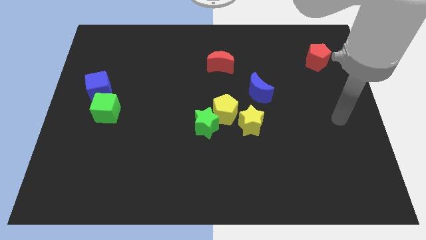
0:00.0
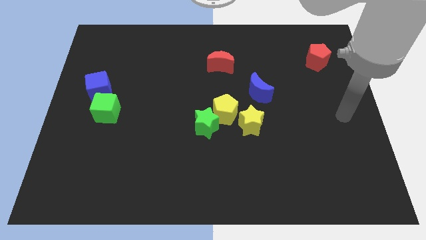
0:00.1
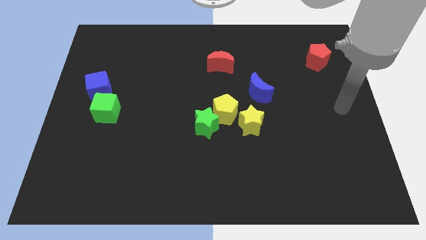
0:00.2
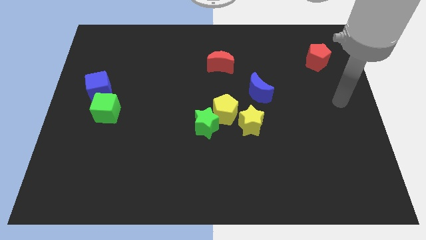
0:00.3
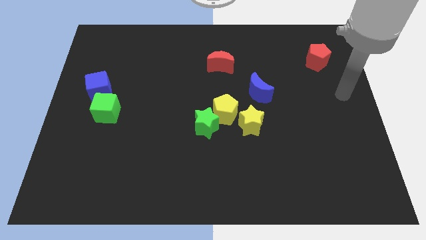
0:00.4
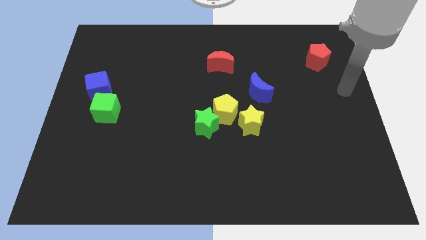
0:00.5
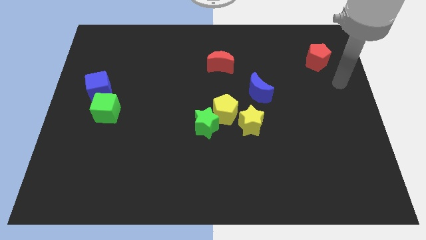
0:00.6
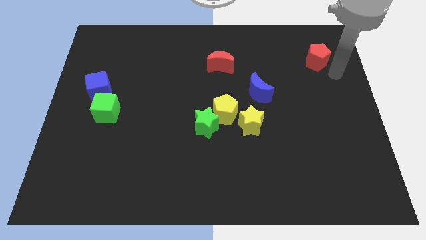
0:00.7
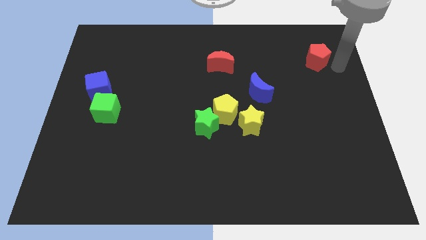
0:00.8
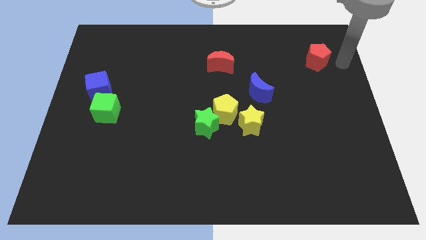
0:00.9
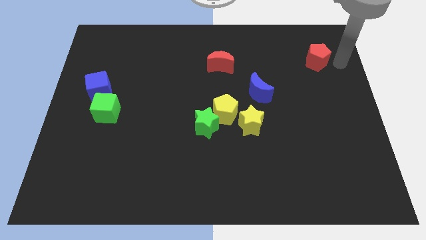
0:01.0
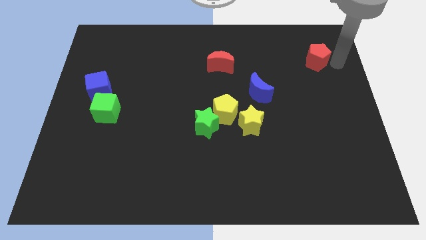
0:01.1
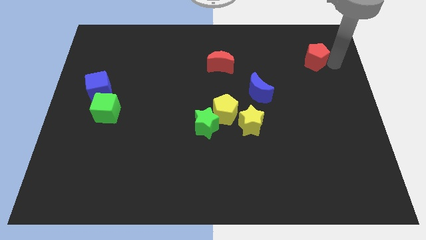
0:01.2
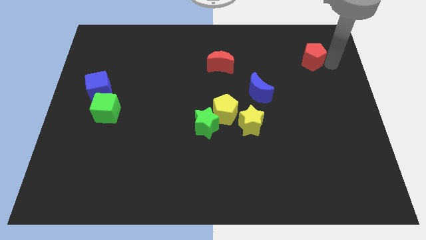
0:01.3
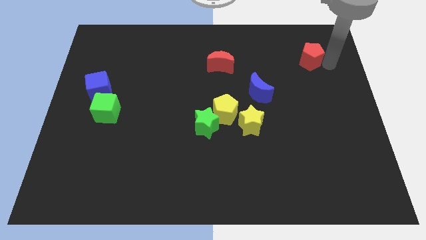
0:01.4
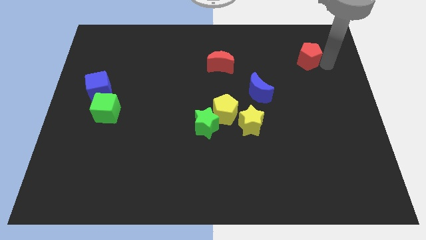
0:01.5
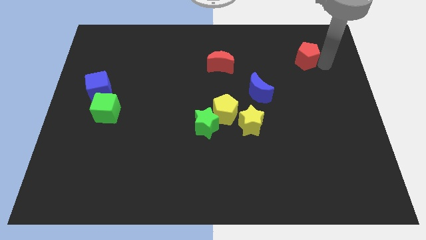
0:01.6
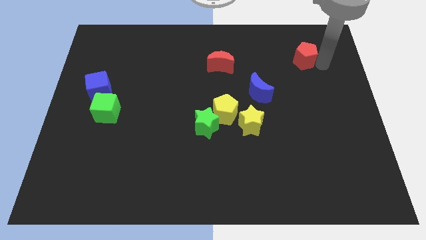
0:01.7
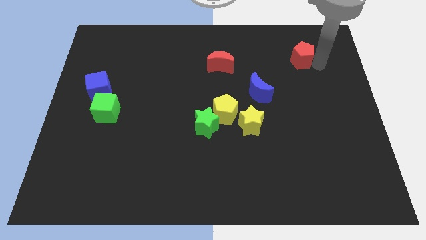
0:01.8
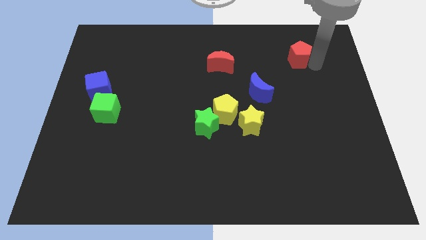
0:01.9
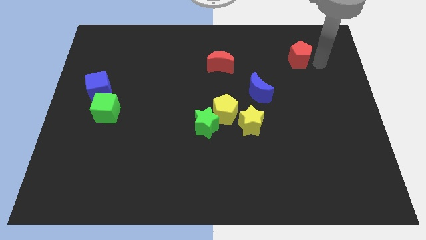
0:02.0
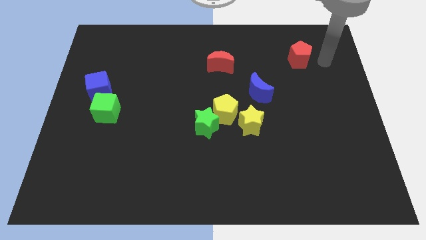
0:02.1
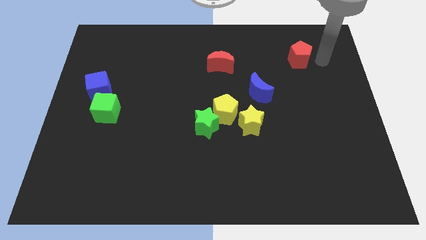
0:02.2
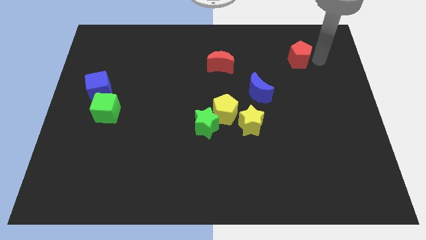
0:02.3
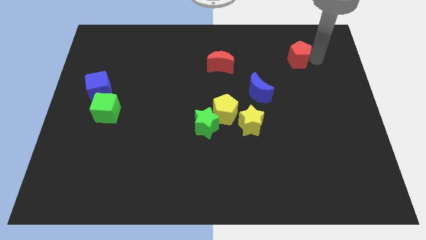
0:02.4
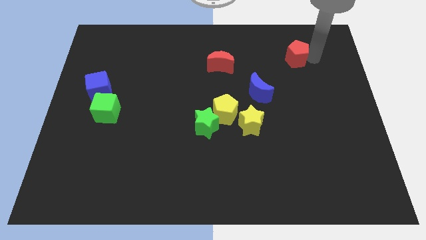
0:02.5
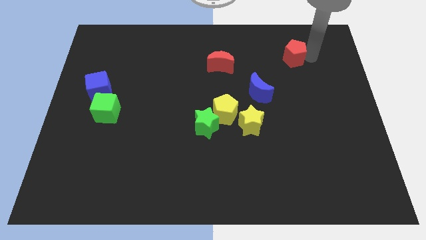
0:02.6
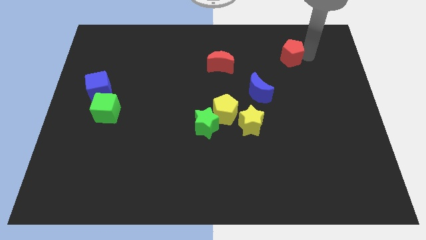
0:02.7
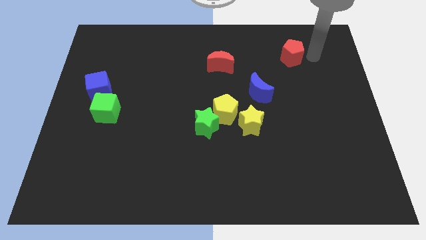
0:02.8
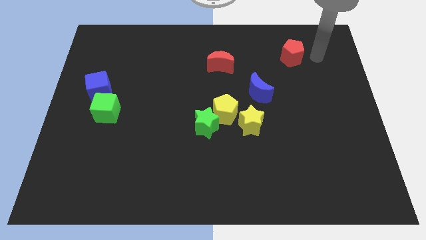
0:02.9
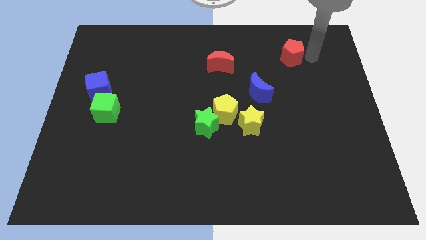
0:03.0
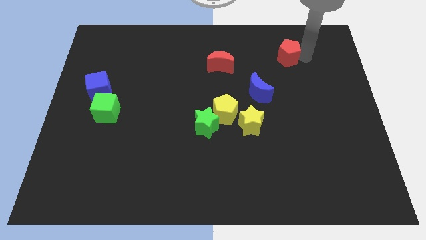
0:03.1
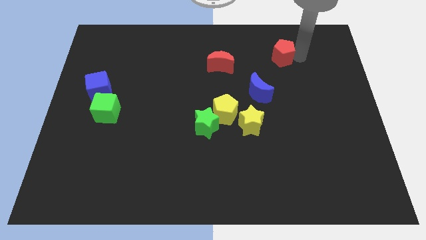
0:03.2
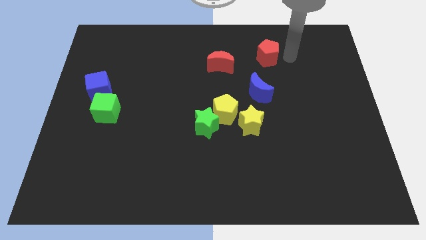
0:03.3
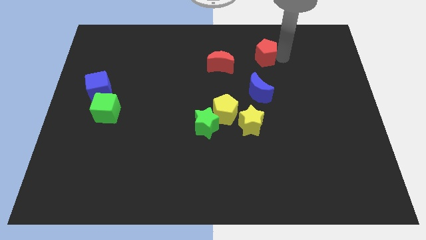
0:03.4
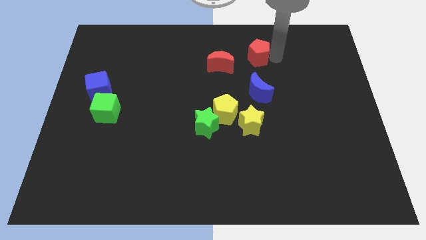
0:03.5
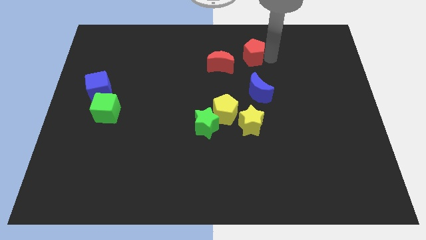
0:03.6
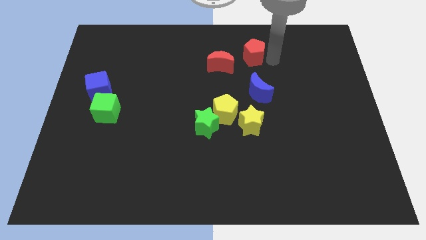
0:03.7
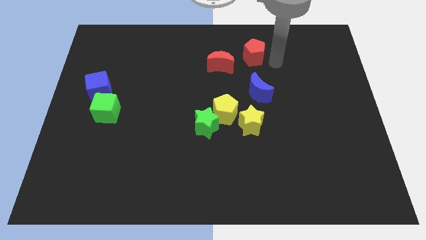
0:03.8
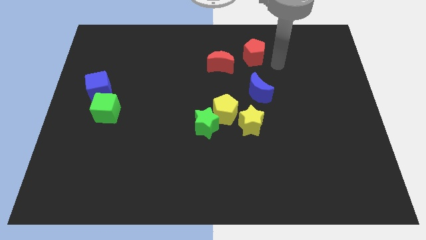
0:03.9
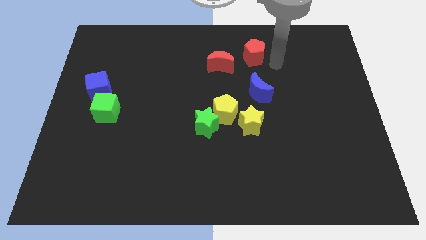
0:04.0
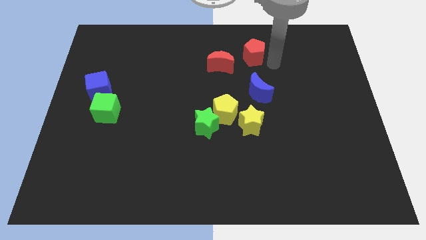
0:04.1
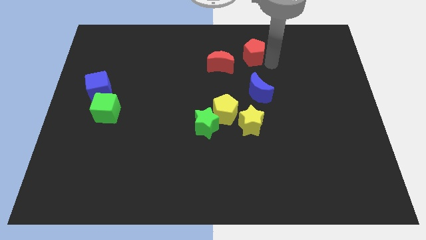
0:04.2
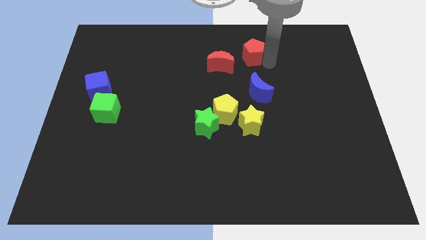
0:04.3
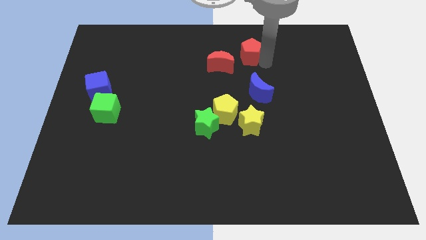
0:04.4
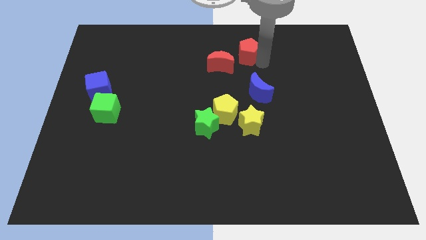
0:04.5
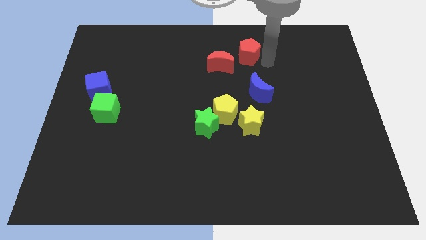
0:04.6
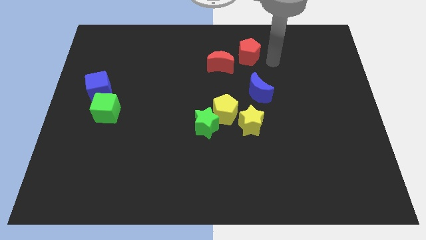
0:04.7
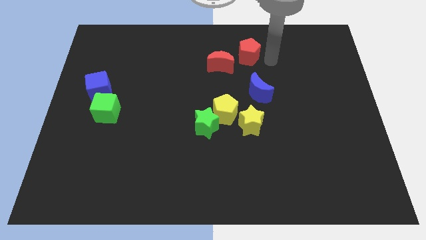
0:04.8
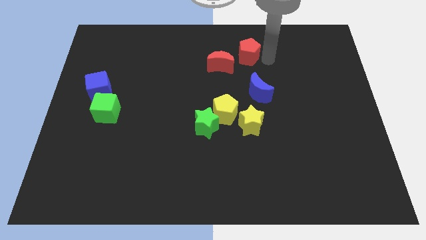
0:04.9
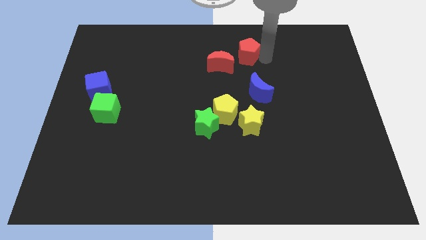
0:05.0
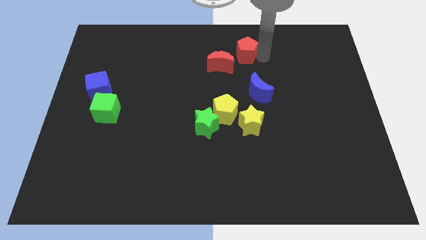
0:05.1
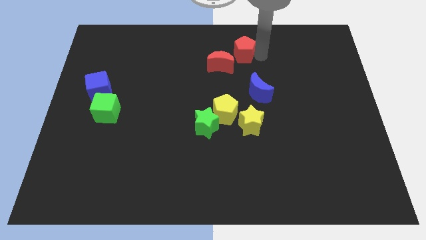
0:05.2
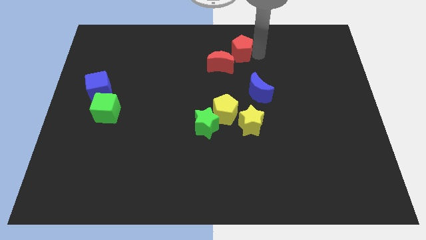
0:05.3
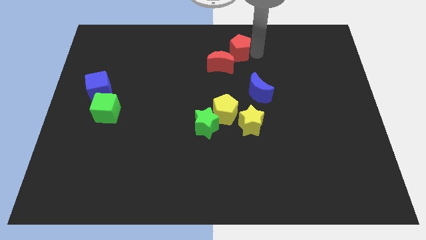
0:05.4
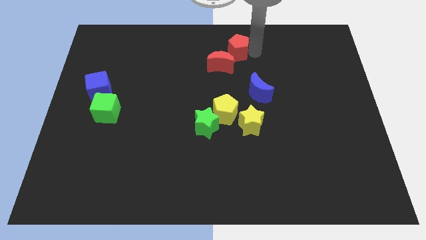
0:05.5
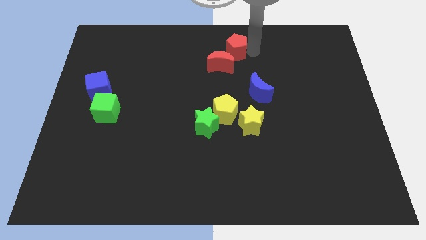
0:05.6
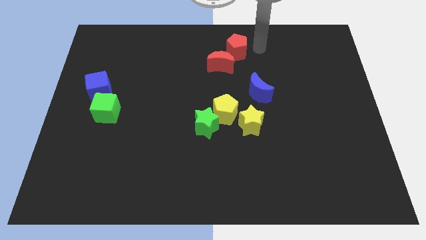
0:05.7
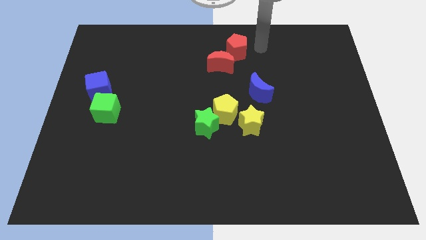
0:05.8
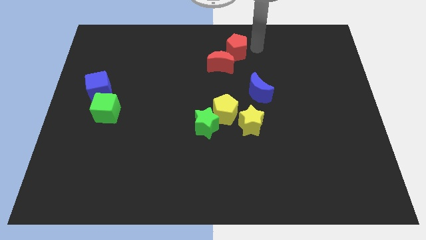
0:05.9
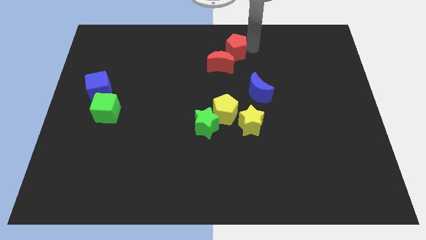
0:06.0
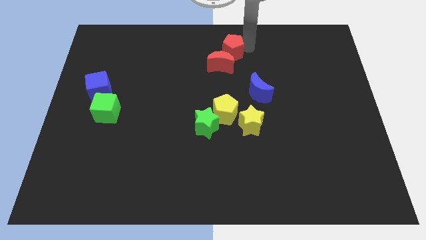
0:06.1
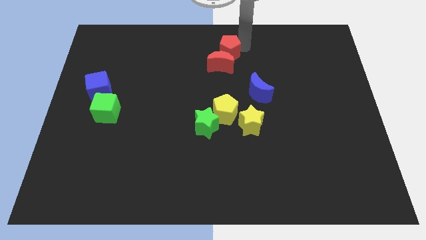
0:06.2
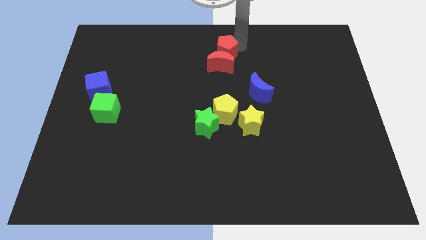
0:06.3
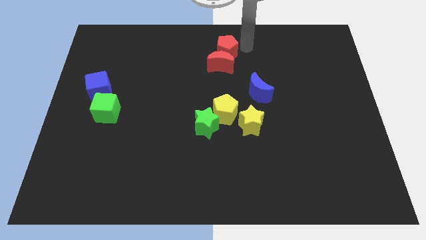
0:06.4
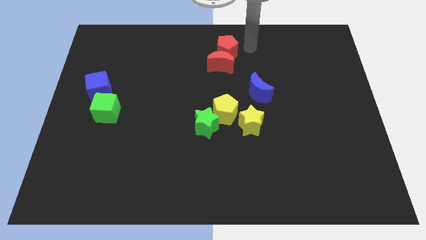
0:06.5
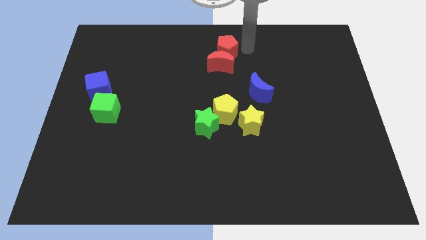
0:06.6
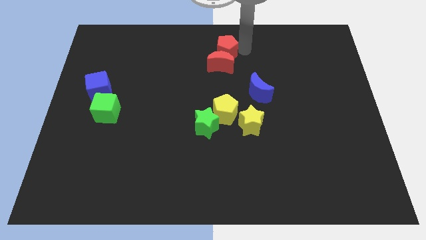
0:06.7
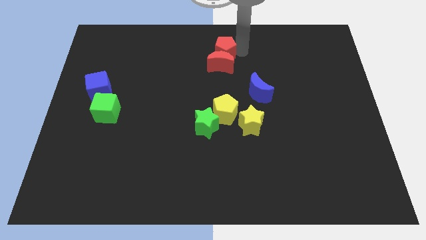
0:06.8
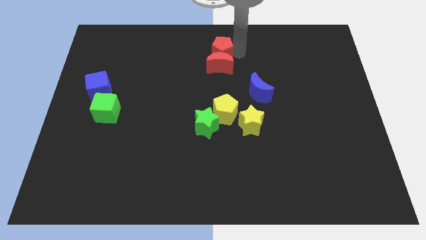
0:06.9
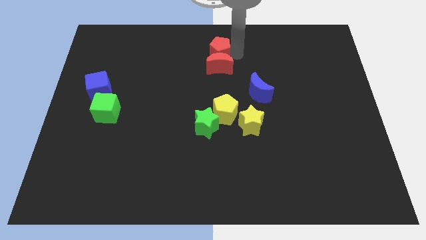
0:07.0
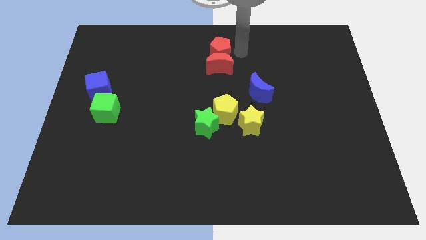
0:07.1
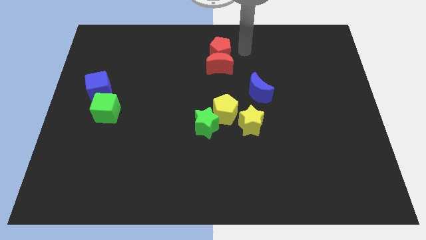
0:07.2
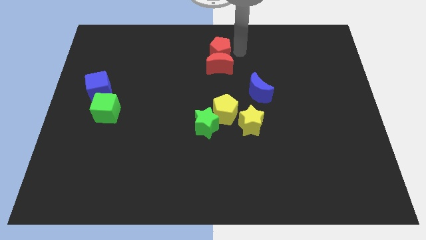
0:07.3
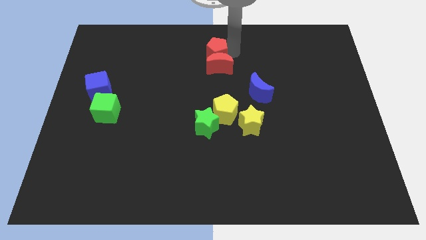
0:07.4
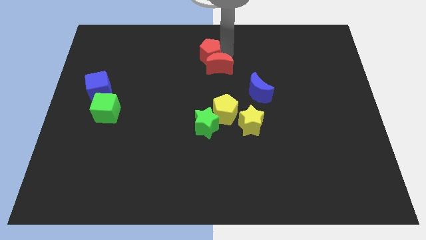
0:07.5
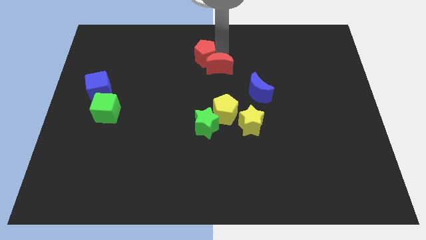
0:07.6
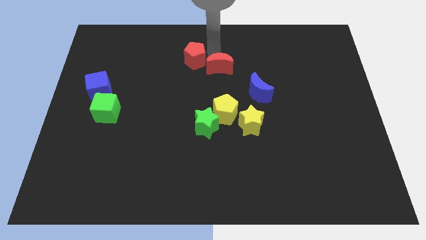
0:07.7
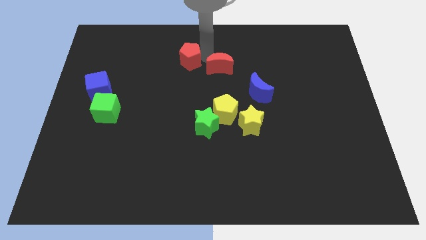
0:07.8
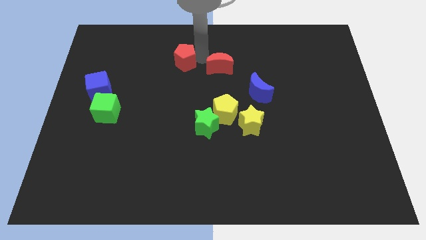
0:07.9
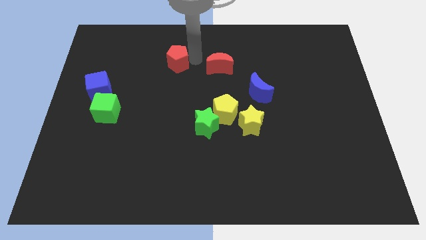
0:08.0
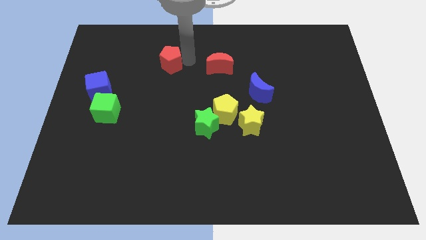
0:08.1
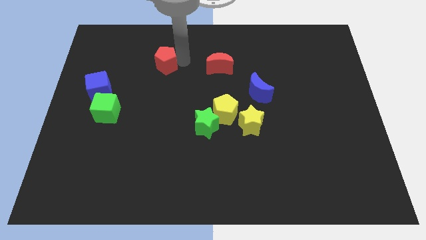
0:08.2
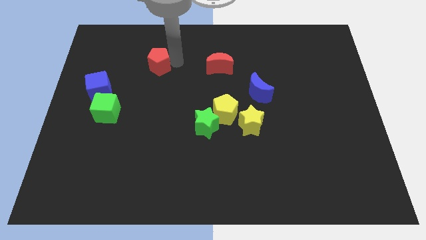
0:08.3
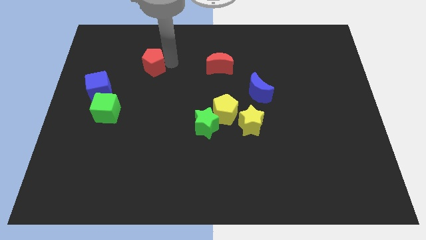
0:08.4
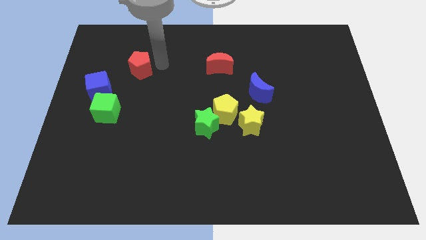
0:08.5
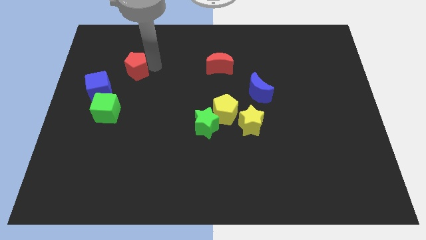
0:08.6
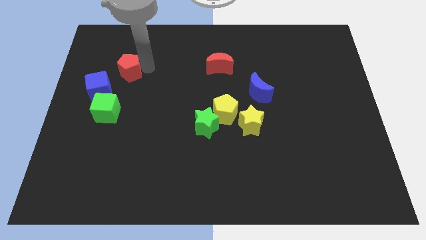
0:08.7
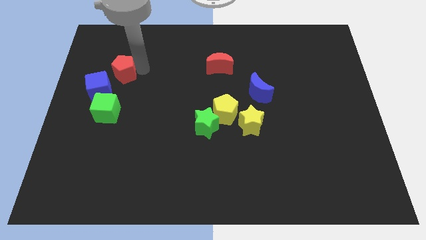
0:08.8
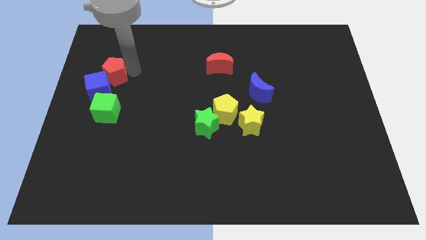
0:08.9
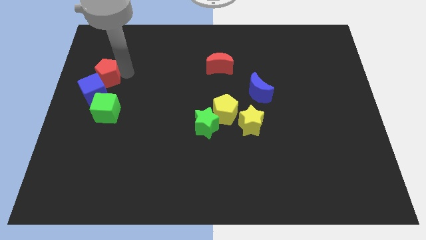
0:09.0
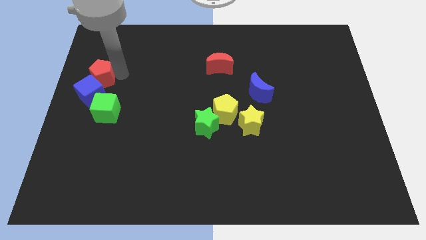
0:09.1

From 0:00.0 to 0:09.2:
put the red pentagon to the left side
